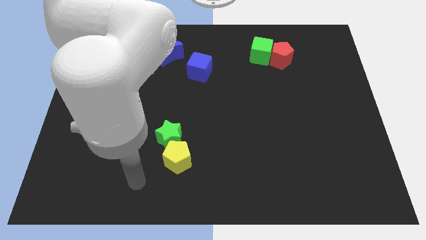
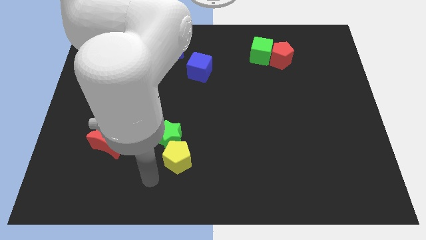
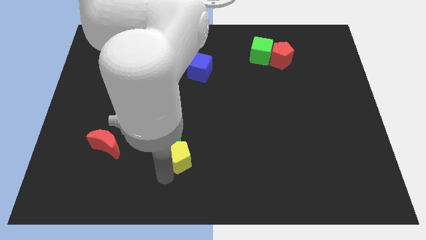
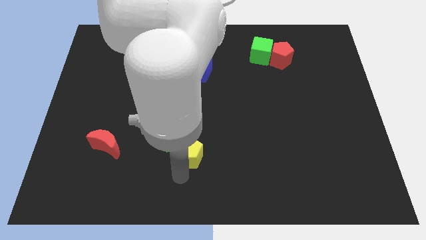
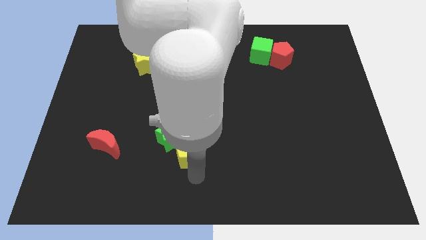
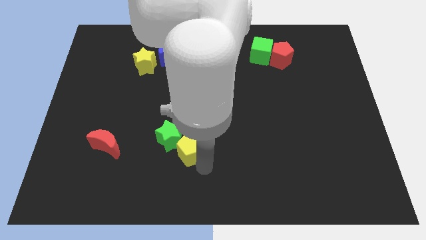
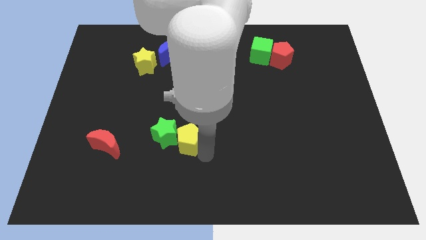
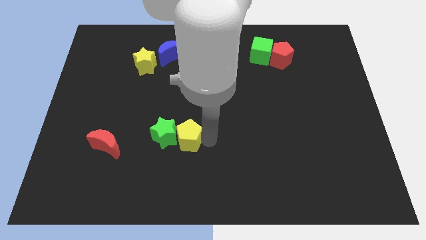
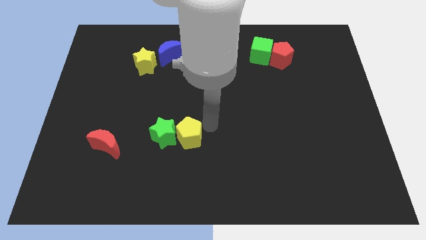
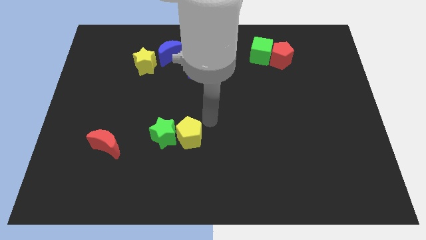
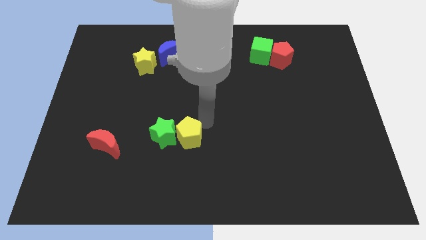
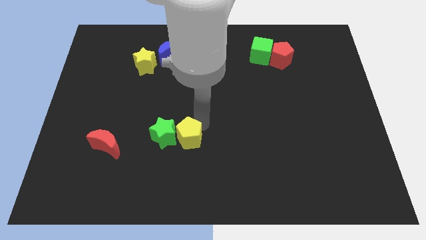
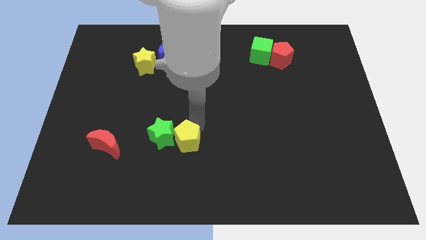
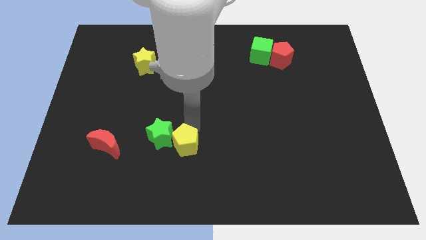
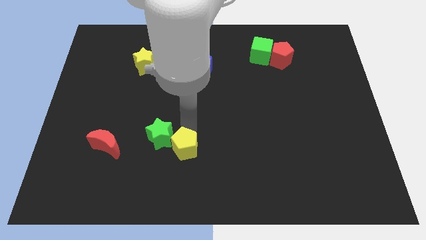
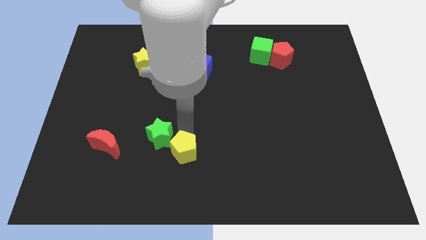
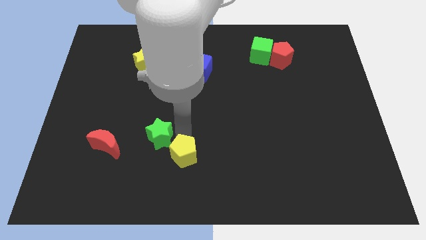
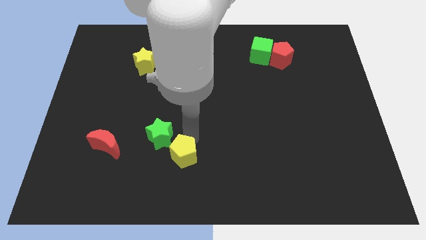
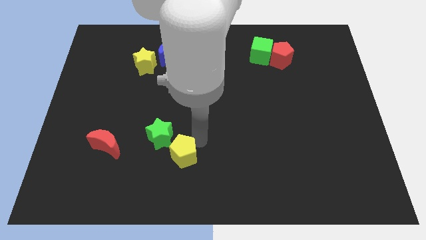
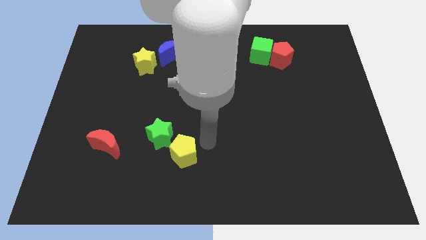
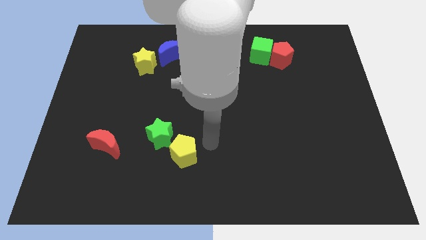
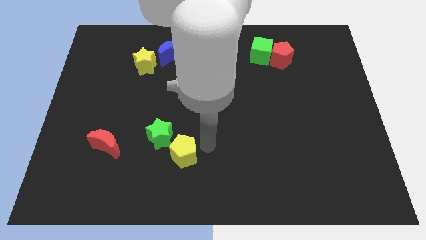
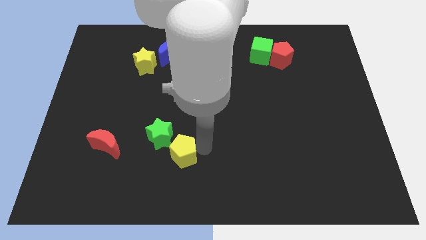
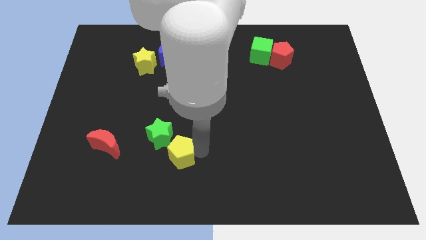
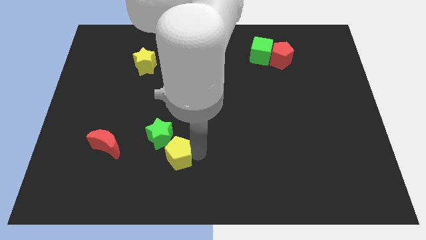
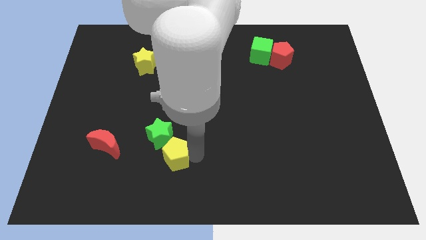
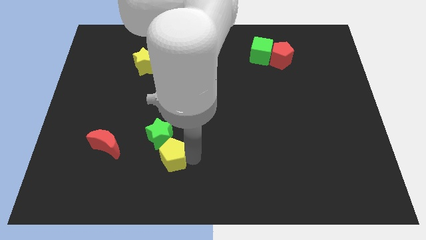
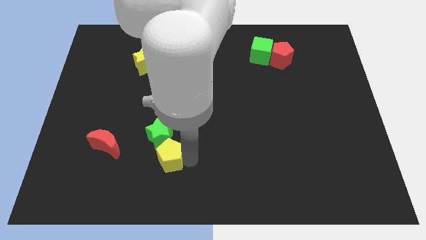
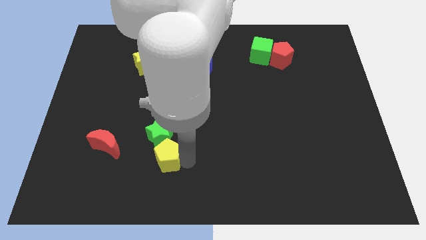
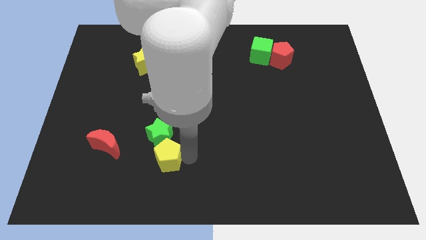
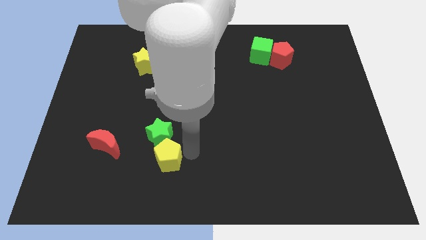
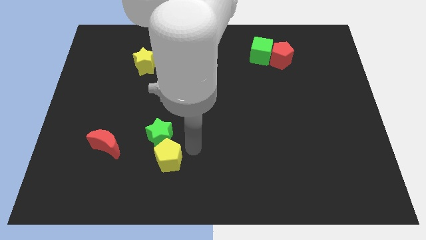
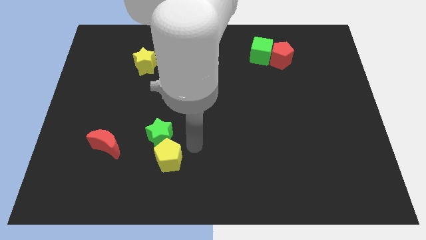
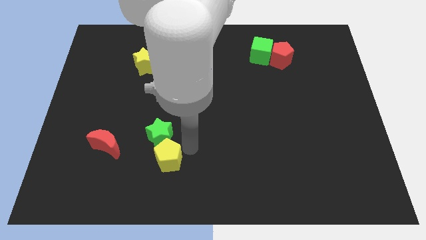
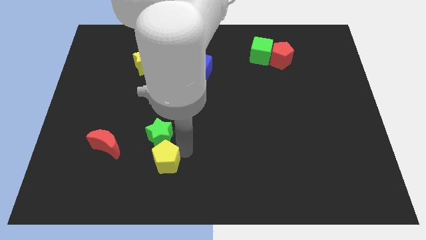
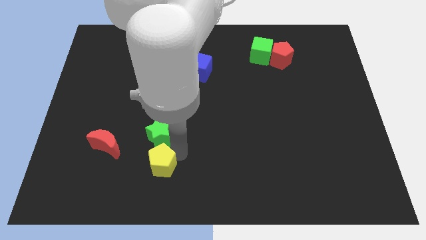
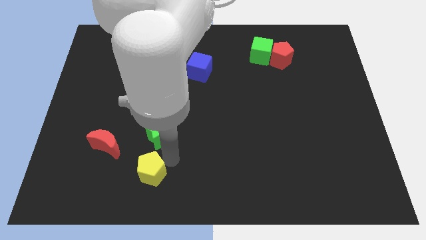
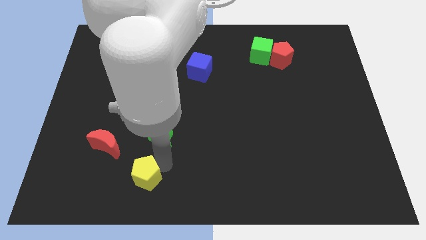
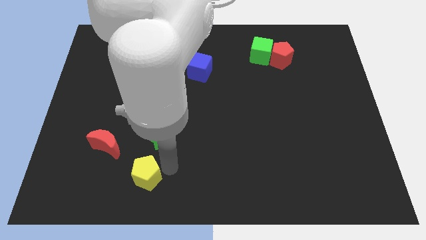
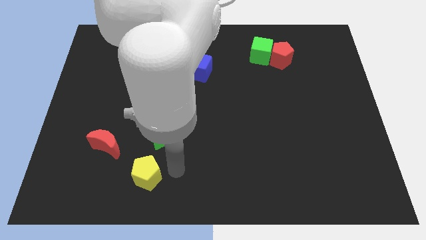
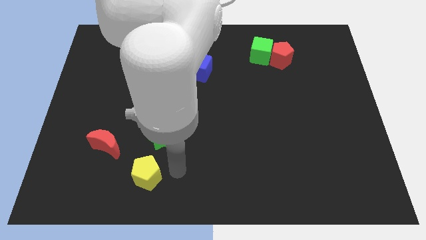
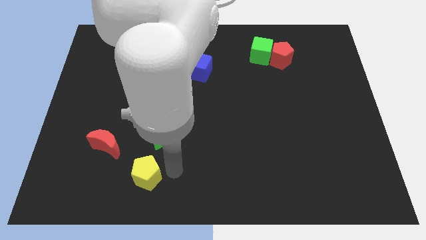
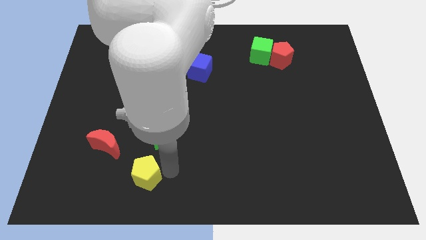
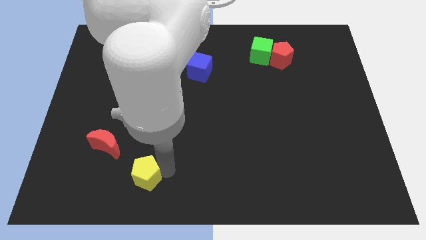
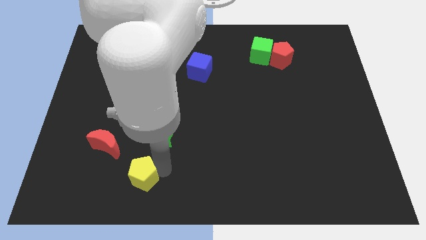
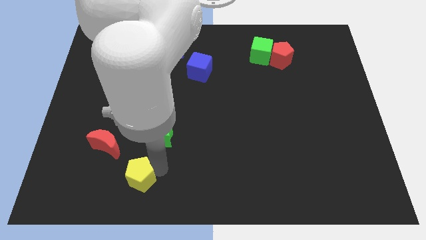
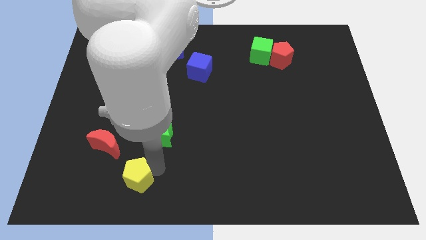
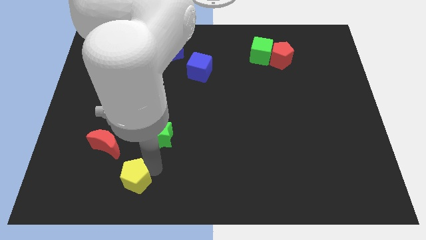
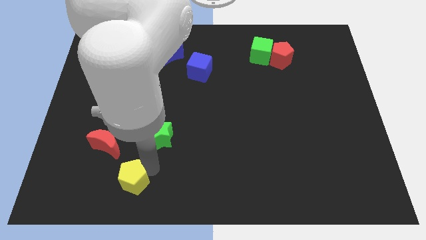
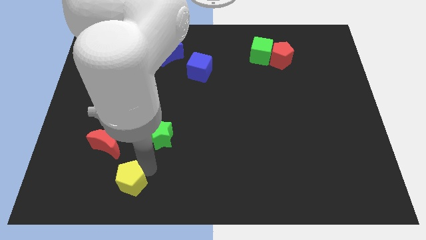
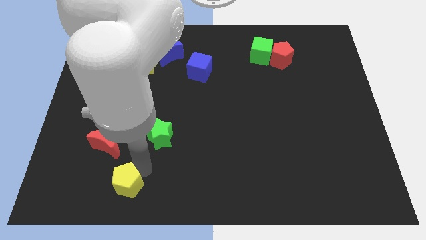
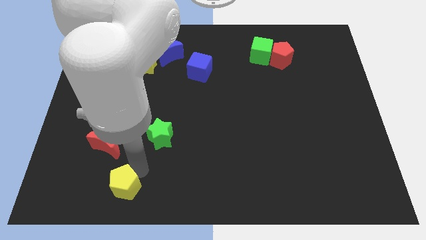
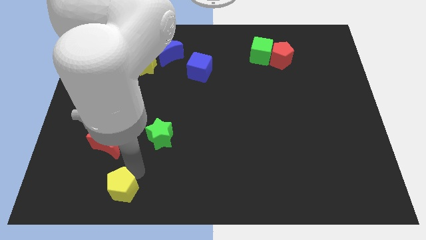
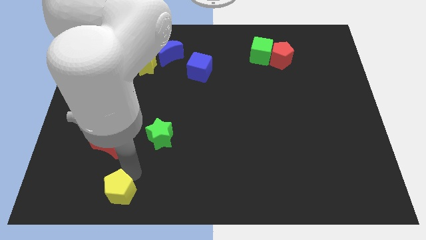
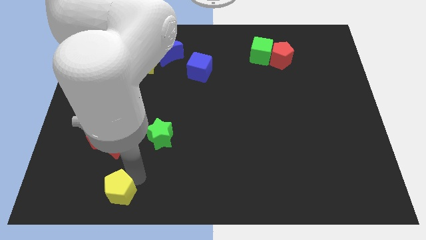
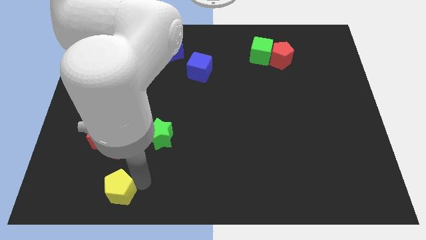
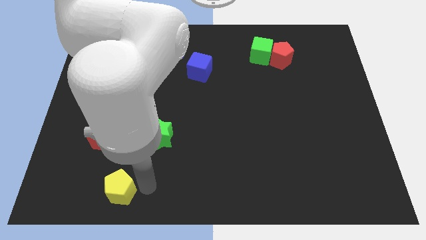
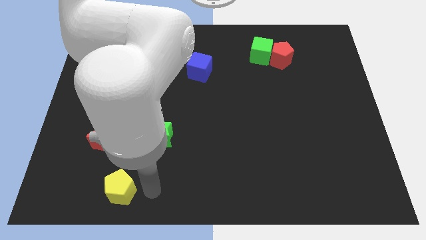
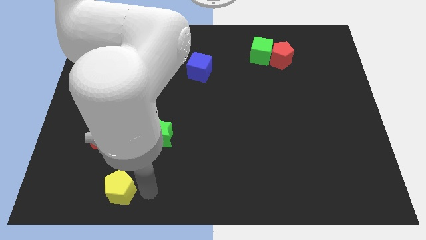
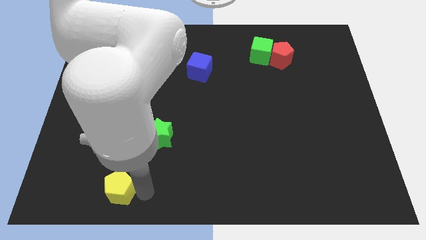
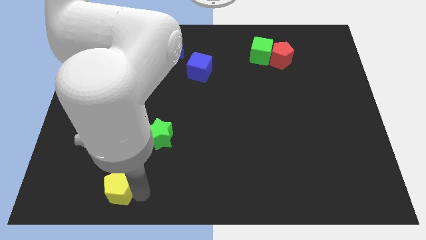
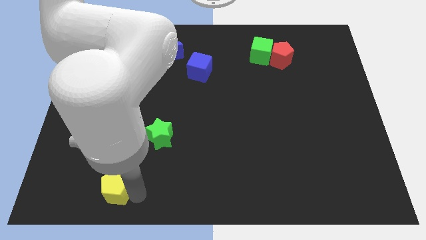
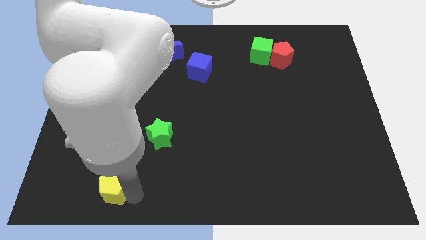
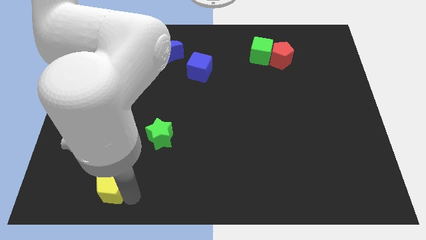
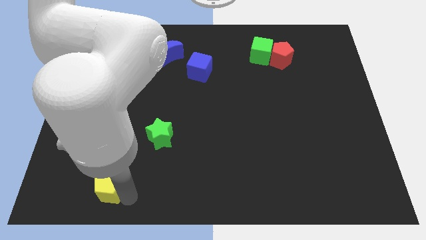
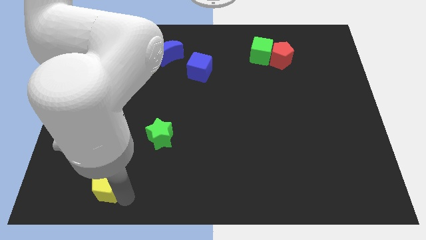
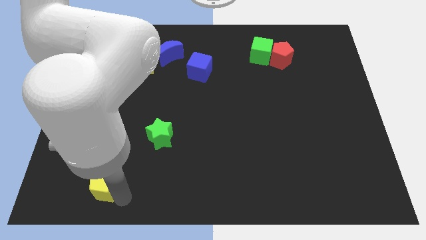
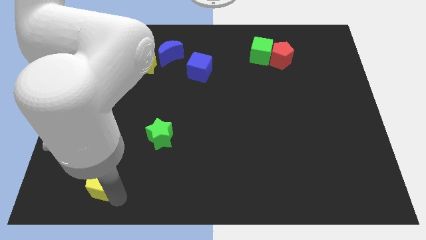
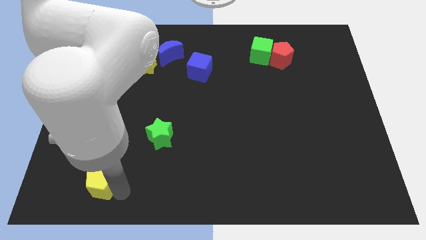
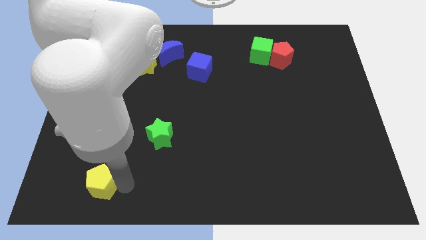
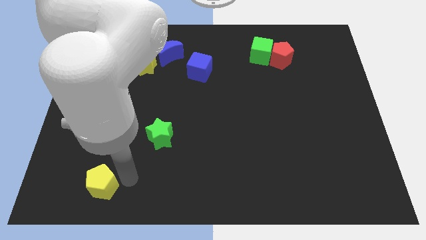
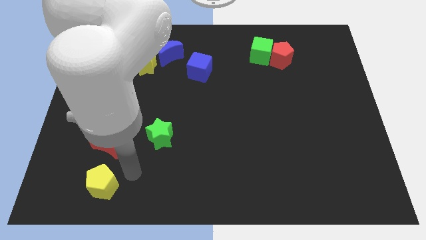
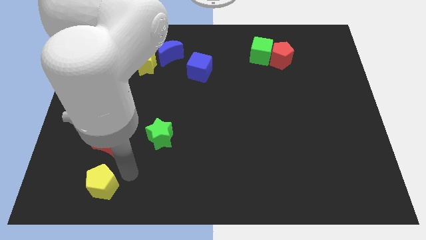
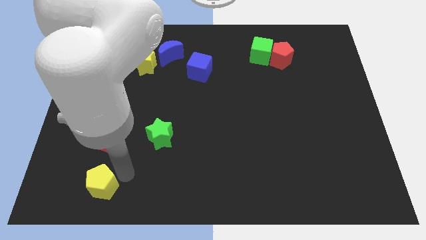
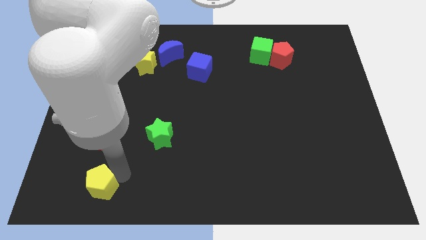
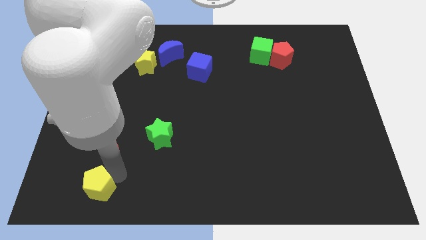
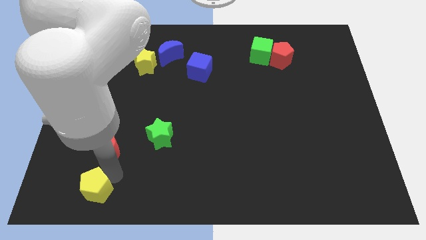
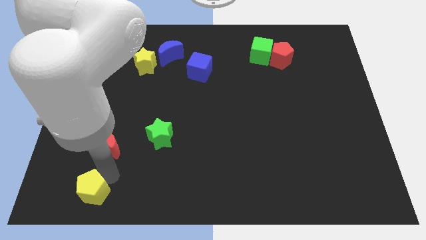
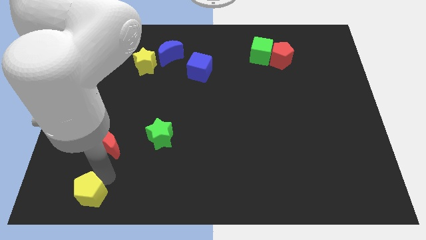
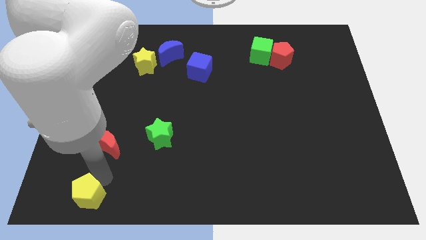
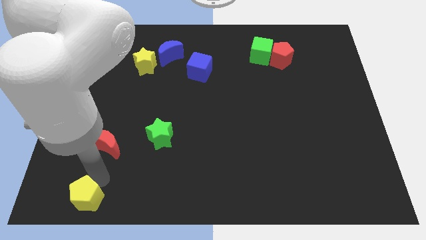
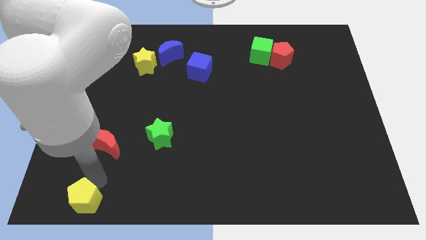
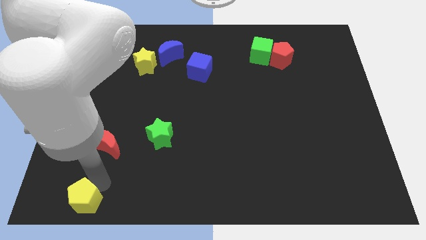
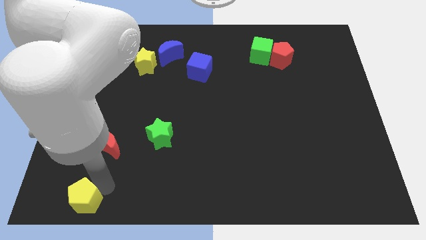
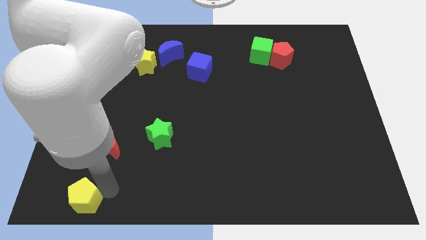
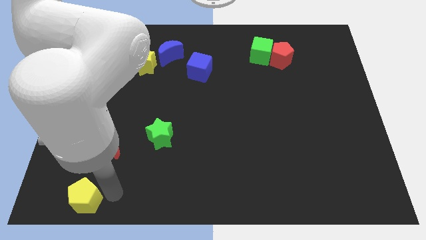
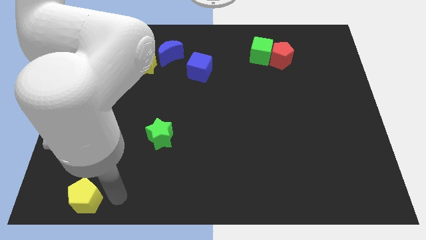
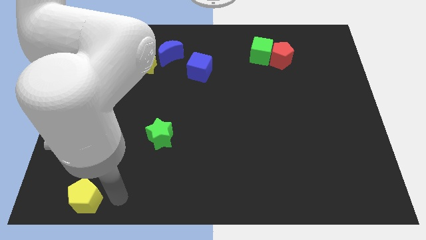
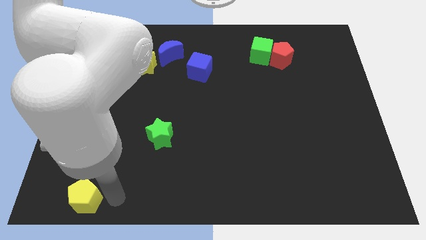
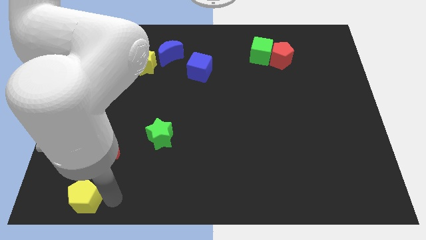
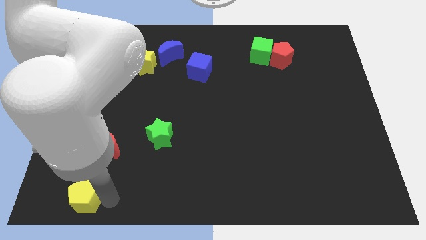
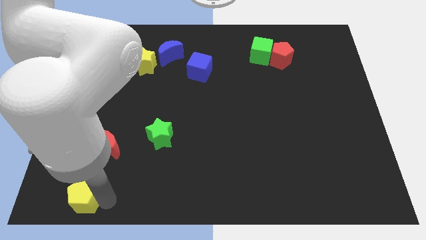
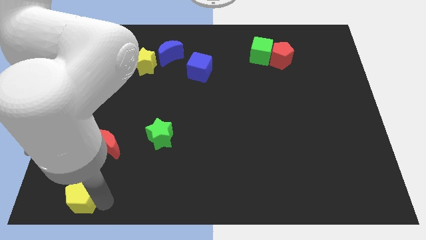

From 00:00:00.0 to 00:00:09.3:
move the yellow pentagon to the bottom left
